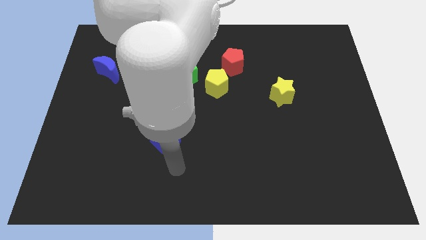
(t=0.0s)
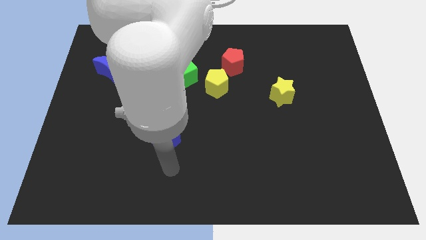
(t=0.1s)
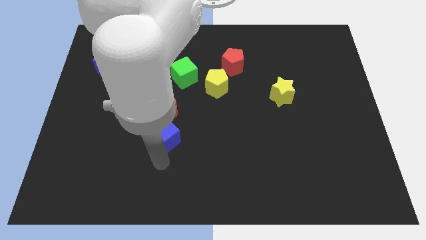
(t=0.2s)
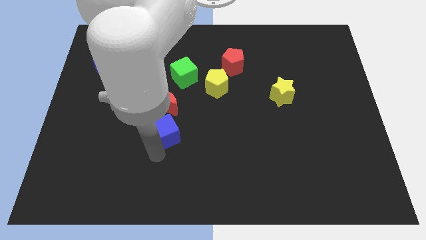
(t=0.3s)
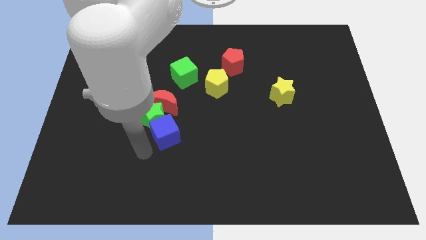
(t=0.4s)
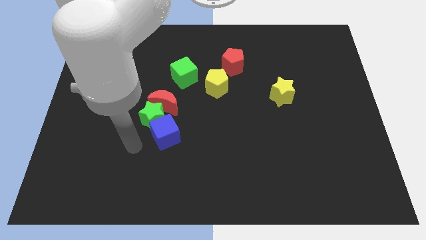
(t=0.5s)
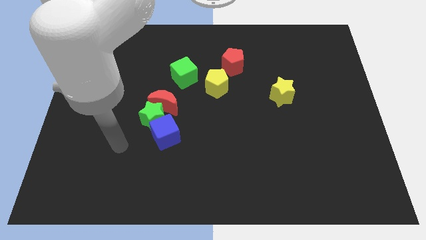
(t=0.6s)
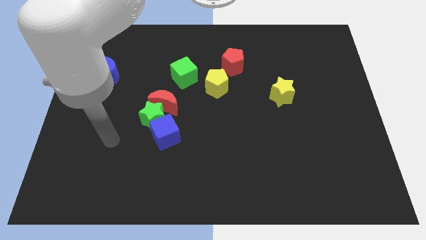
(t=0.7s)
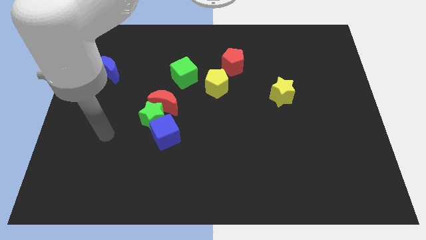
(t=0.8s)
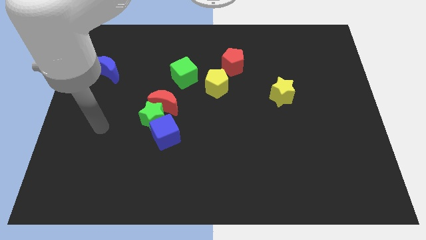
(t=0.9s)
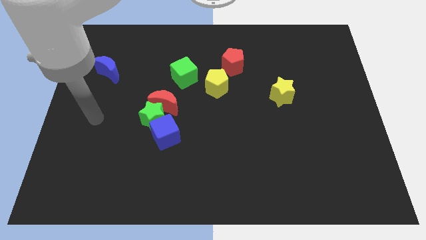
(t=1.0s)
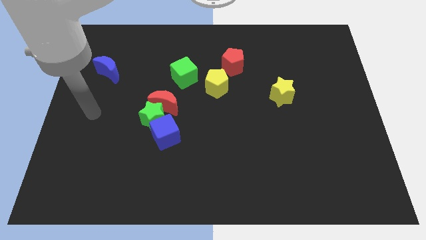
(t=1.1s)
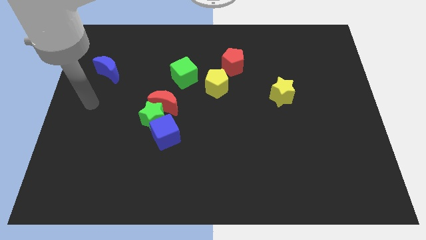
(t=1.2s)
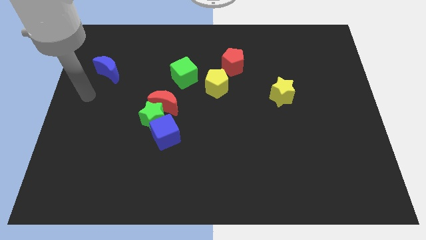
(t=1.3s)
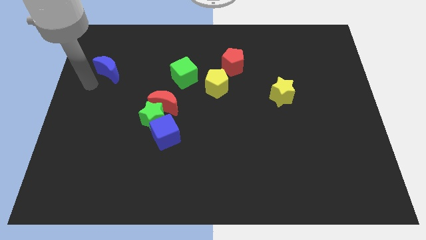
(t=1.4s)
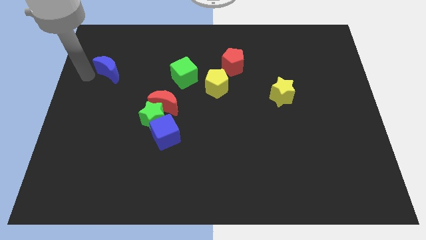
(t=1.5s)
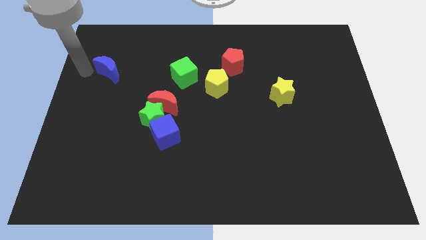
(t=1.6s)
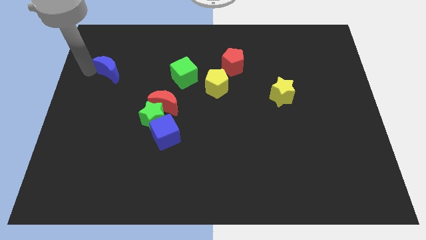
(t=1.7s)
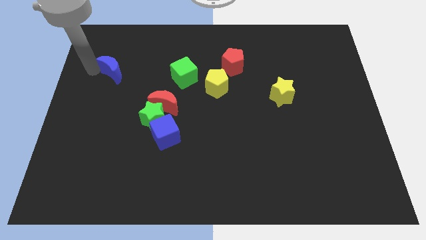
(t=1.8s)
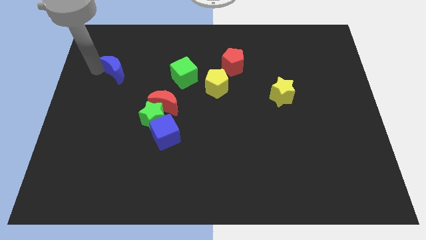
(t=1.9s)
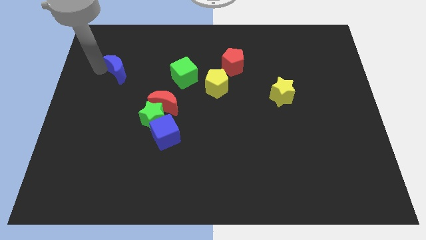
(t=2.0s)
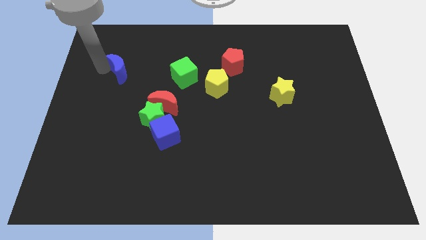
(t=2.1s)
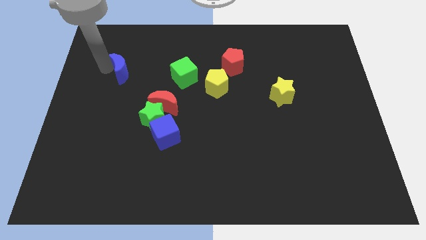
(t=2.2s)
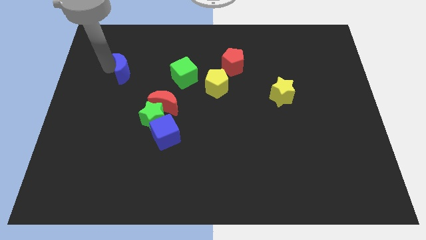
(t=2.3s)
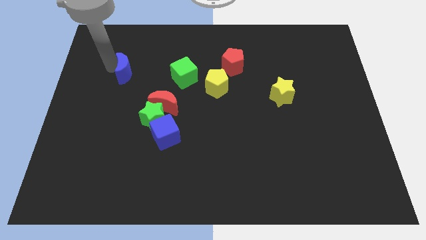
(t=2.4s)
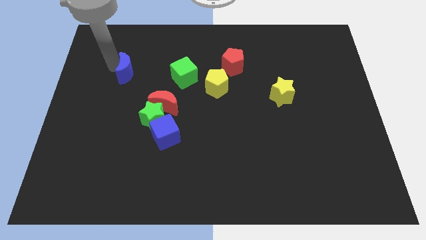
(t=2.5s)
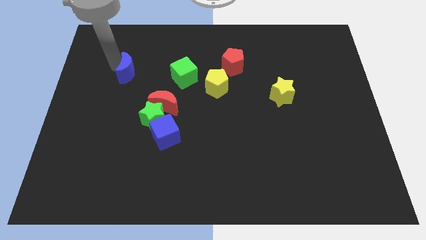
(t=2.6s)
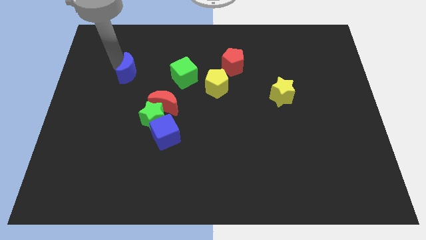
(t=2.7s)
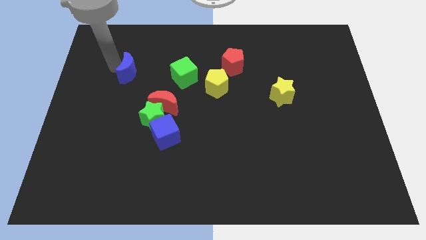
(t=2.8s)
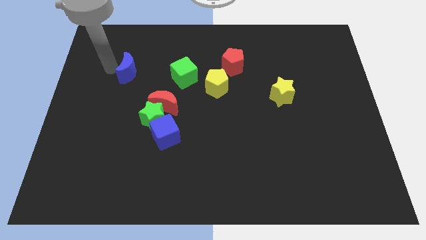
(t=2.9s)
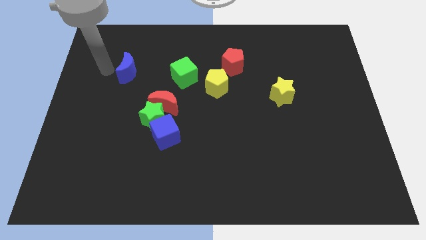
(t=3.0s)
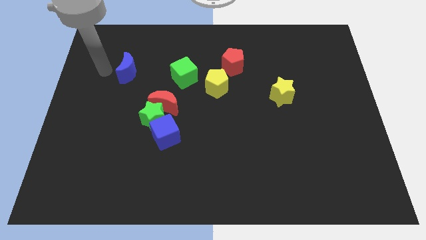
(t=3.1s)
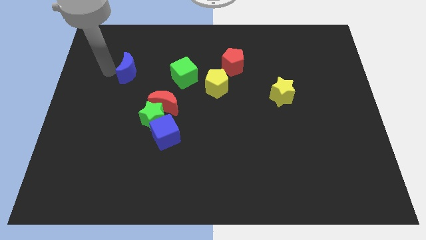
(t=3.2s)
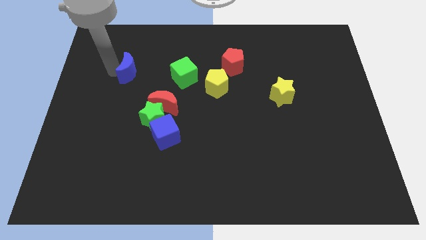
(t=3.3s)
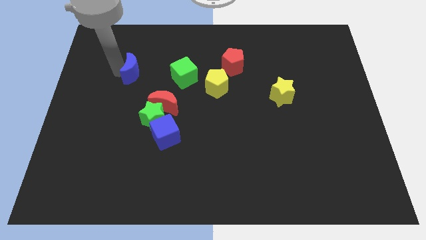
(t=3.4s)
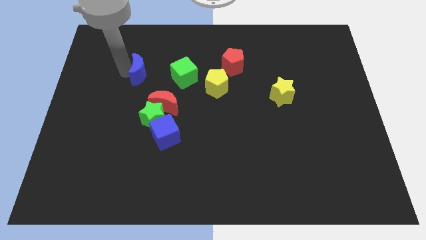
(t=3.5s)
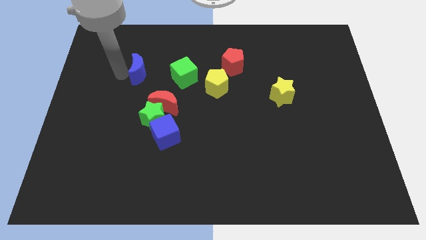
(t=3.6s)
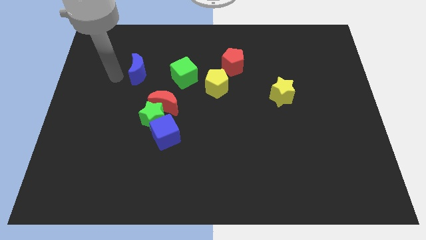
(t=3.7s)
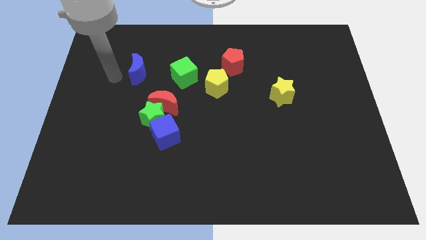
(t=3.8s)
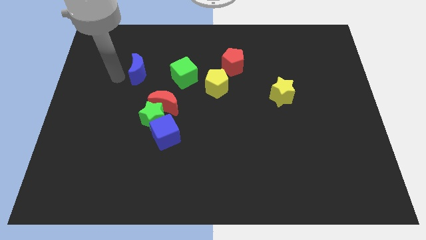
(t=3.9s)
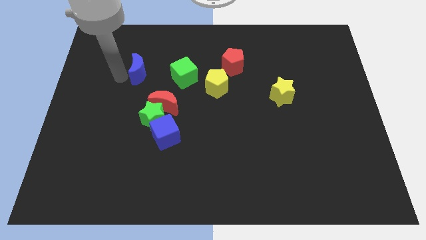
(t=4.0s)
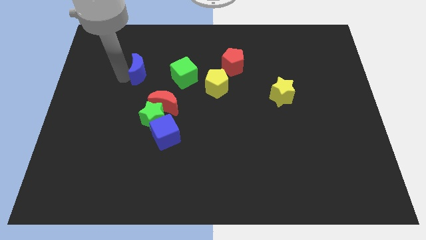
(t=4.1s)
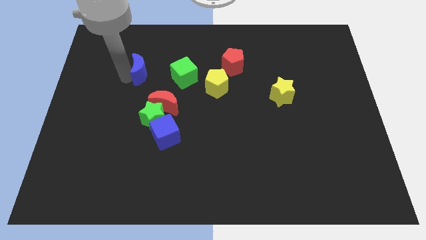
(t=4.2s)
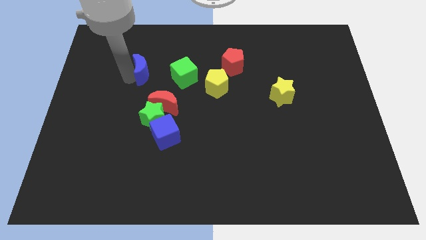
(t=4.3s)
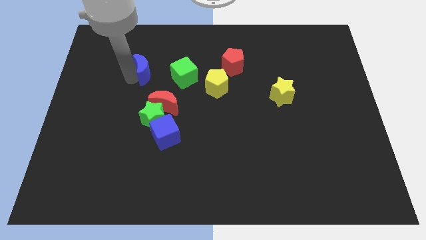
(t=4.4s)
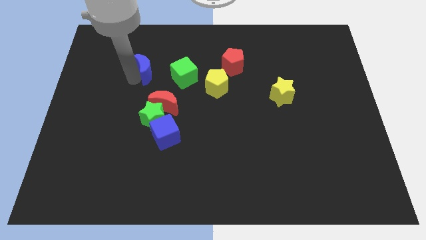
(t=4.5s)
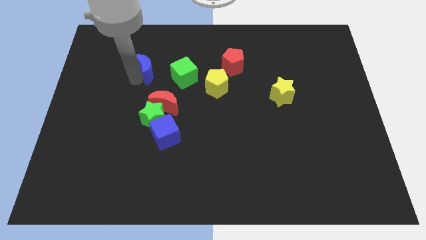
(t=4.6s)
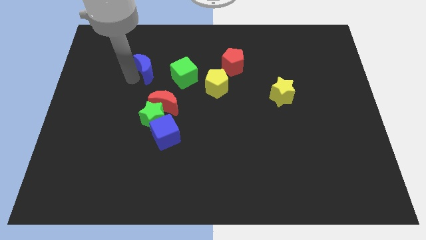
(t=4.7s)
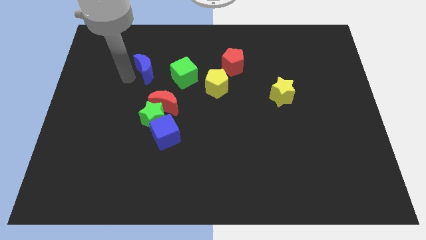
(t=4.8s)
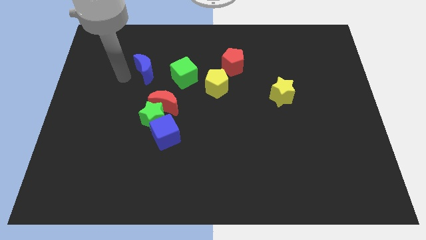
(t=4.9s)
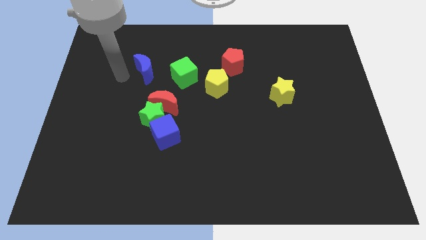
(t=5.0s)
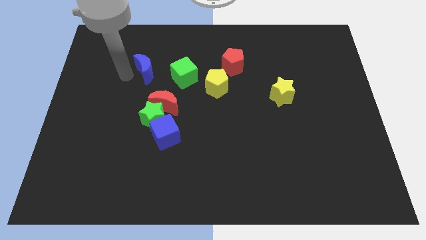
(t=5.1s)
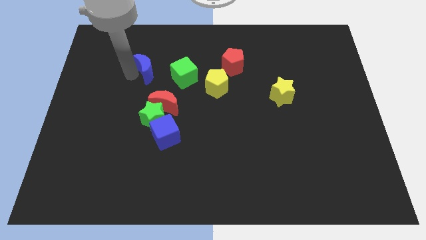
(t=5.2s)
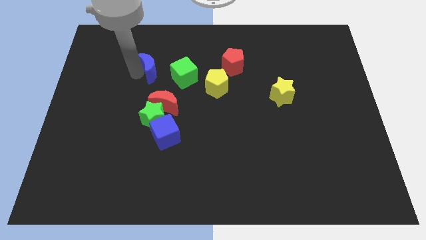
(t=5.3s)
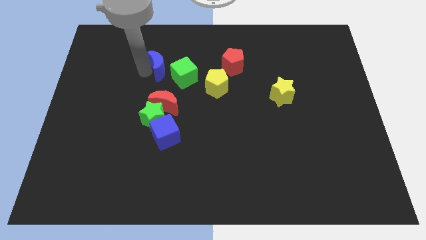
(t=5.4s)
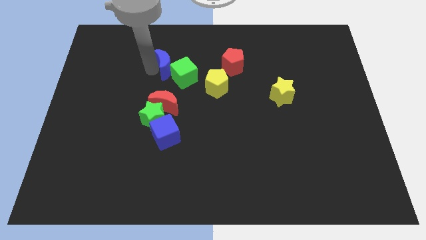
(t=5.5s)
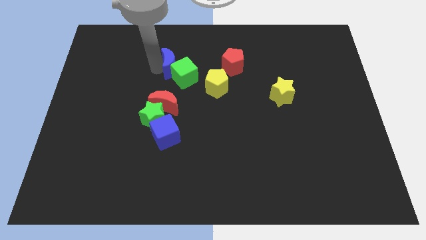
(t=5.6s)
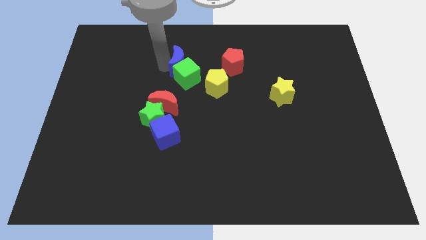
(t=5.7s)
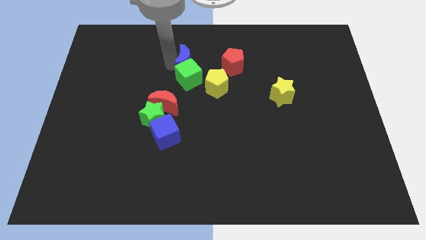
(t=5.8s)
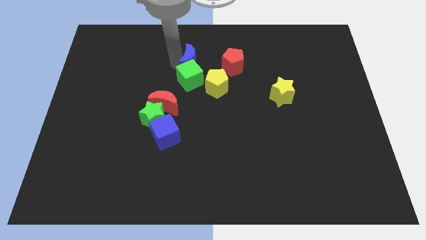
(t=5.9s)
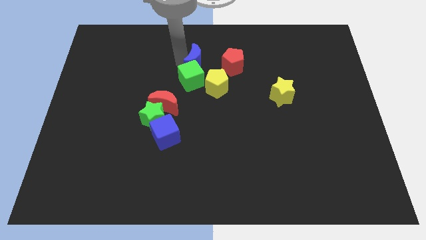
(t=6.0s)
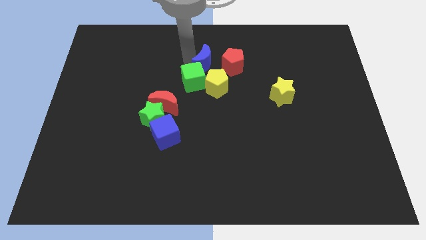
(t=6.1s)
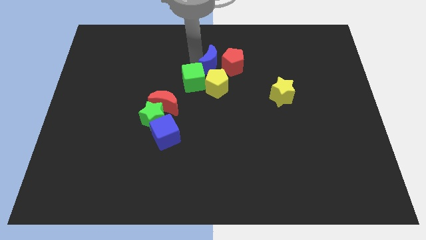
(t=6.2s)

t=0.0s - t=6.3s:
put the blue moon towards the red pentagon

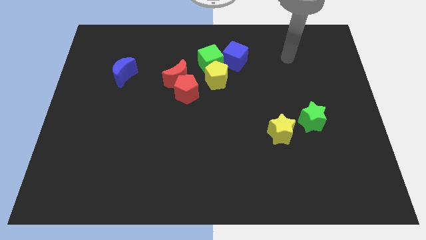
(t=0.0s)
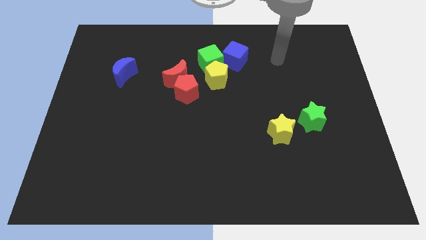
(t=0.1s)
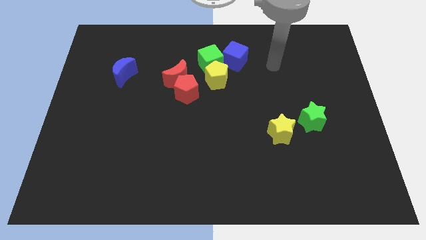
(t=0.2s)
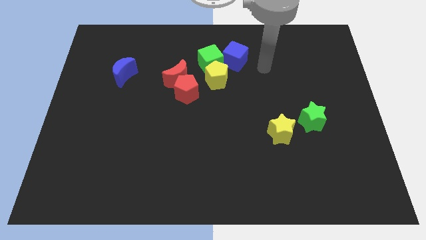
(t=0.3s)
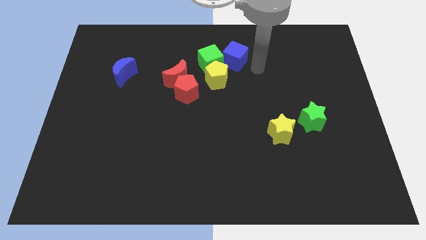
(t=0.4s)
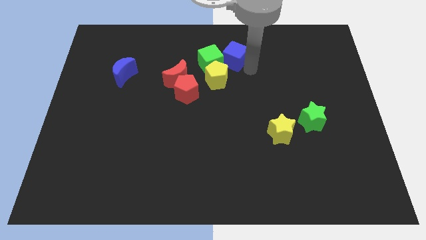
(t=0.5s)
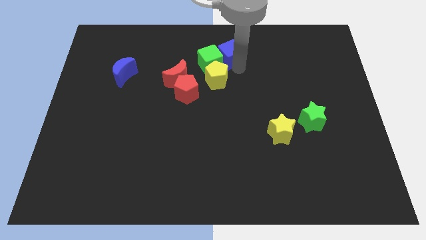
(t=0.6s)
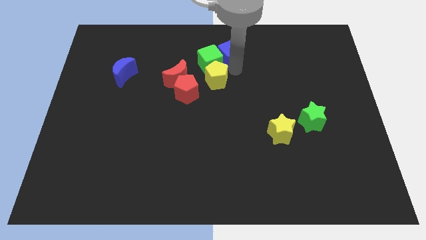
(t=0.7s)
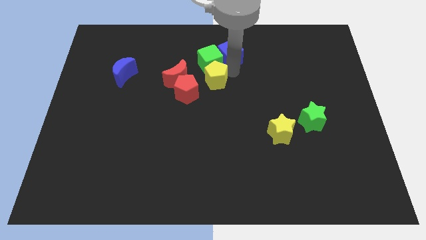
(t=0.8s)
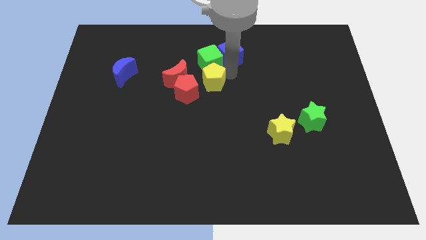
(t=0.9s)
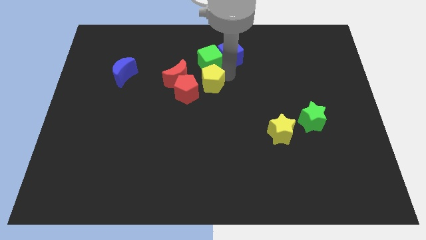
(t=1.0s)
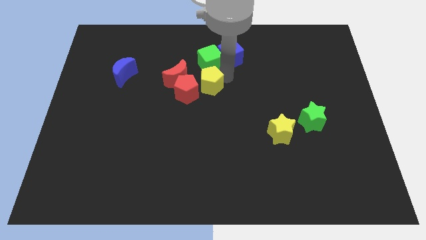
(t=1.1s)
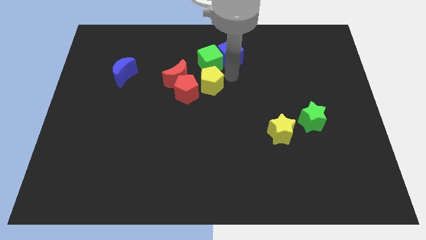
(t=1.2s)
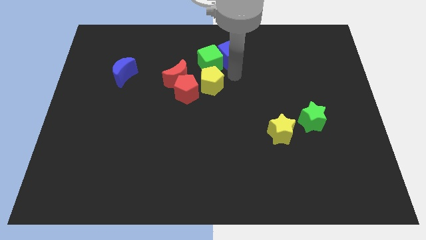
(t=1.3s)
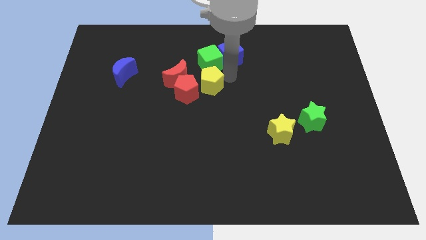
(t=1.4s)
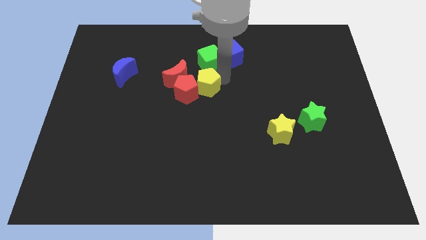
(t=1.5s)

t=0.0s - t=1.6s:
put the yellow pentagon to the red pentagon
